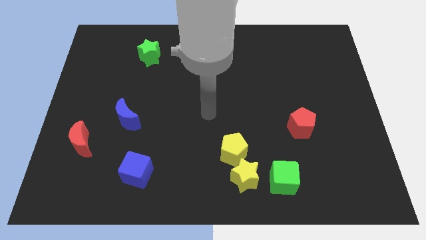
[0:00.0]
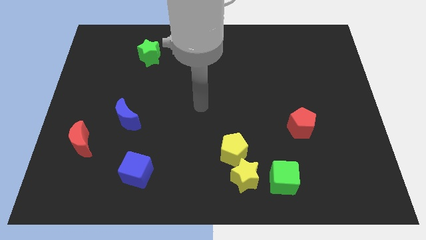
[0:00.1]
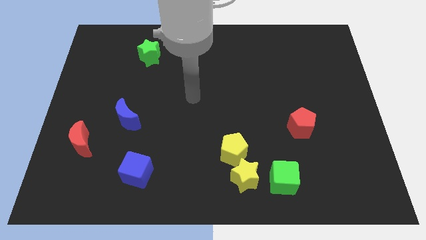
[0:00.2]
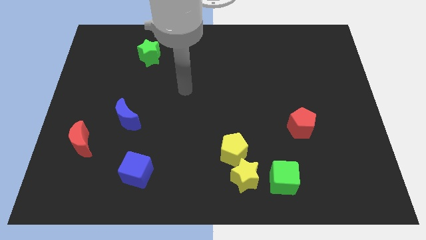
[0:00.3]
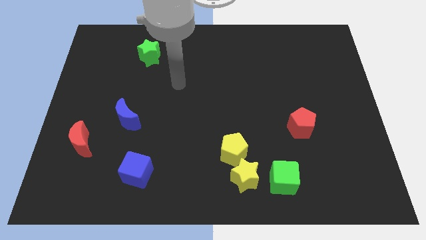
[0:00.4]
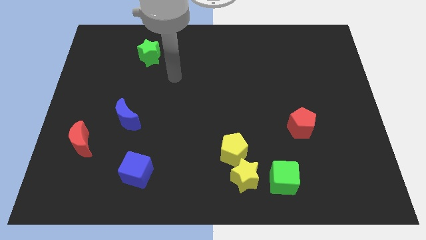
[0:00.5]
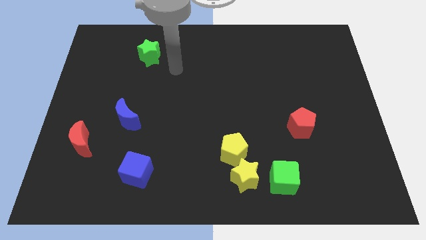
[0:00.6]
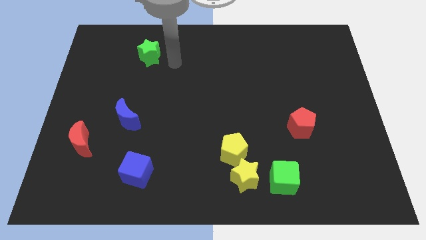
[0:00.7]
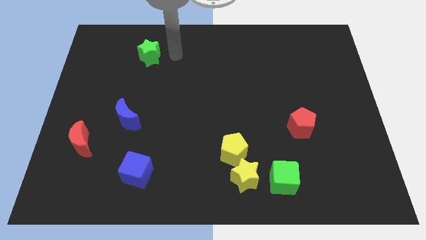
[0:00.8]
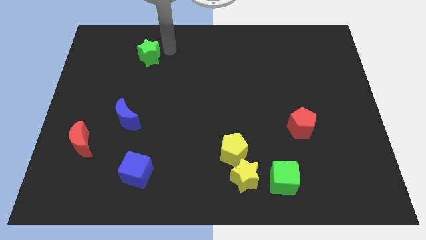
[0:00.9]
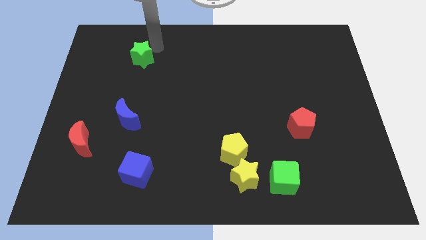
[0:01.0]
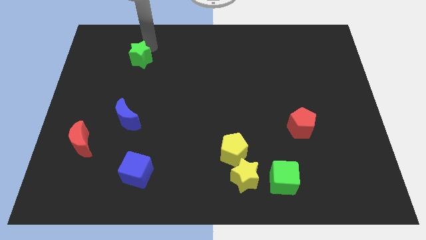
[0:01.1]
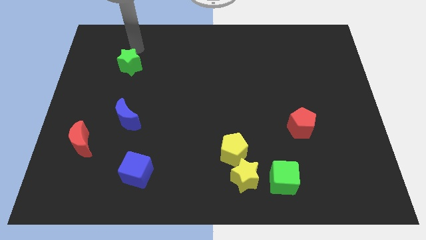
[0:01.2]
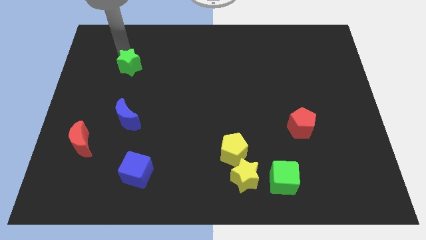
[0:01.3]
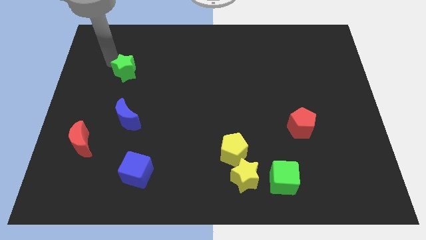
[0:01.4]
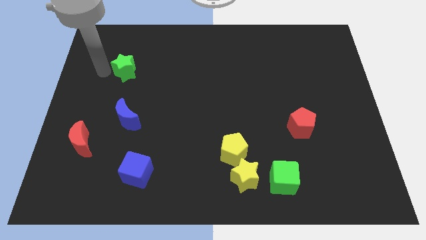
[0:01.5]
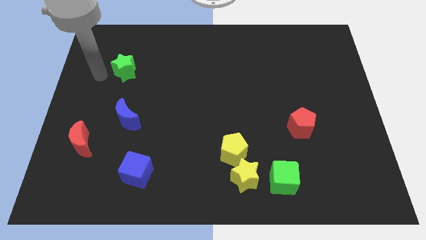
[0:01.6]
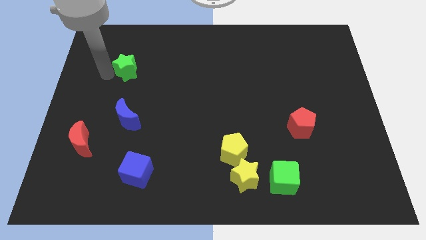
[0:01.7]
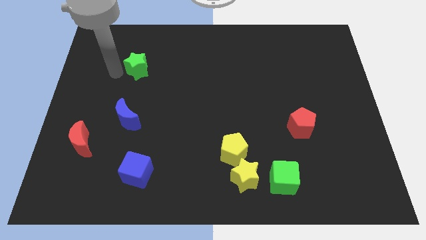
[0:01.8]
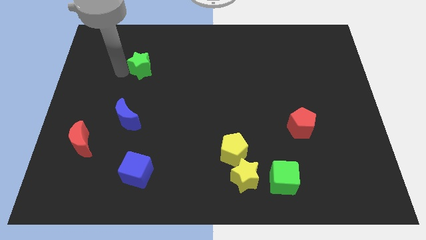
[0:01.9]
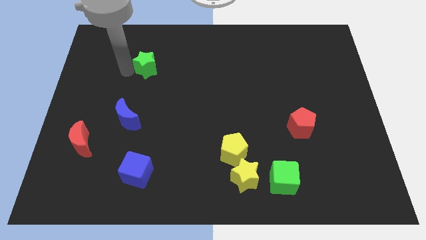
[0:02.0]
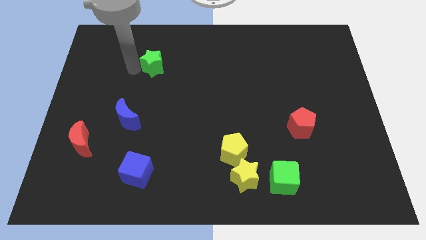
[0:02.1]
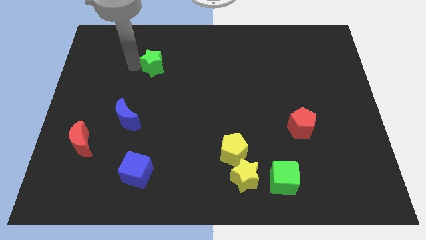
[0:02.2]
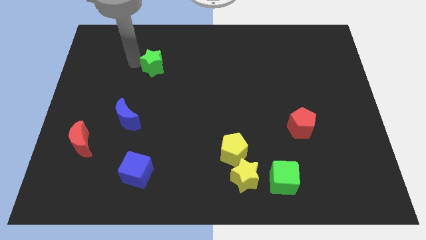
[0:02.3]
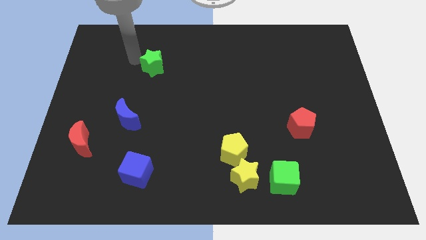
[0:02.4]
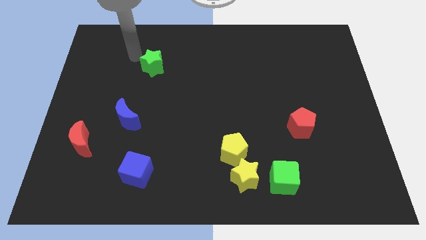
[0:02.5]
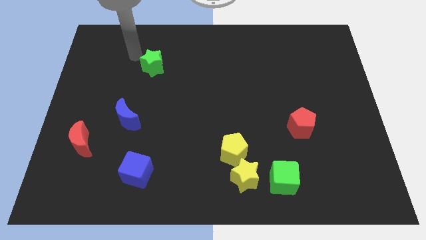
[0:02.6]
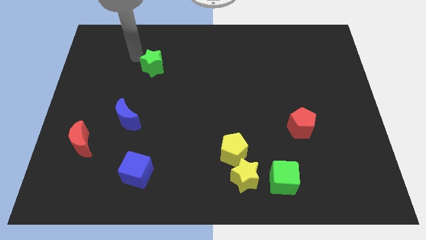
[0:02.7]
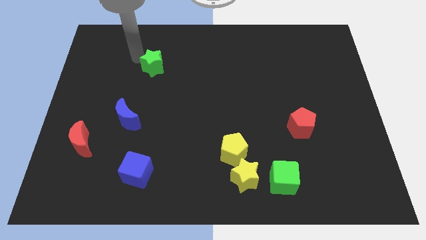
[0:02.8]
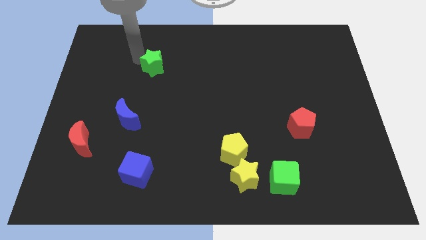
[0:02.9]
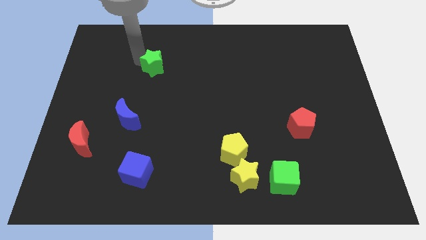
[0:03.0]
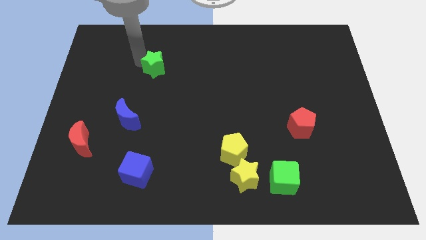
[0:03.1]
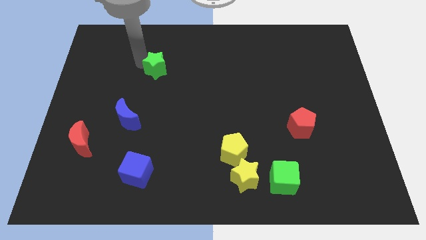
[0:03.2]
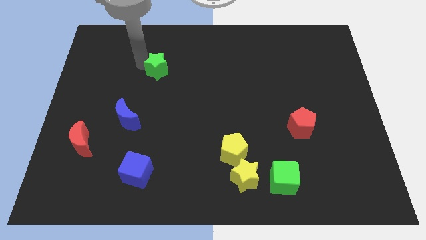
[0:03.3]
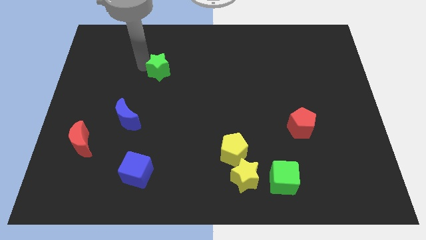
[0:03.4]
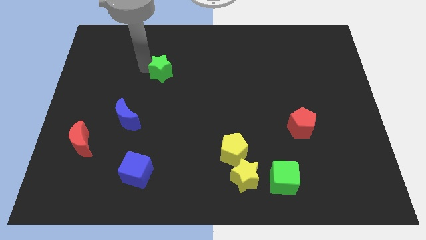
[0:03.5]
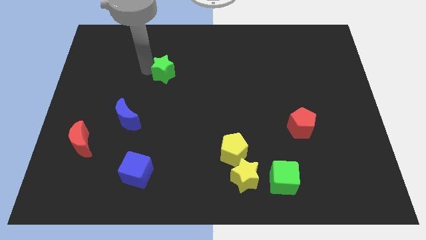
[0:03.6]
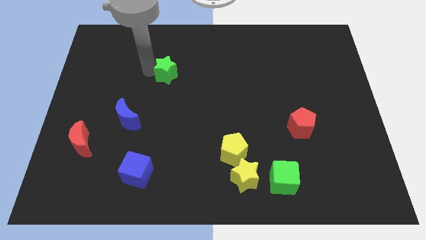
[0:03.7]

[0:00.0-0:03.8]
move the green star downwards and then to the right a bit

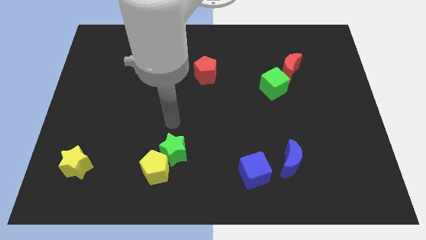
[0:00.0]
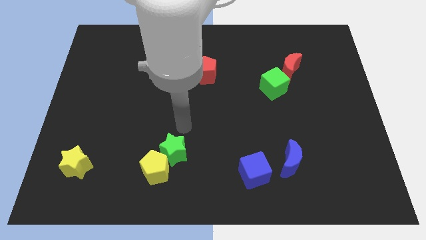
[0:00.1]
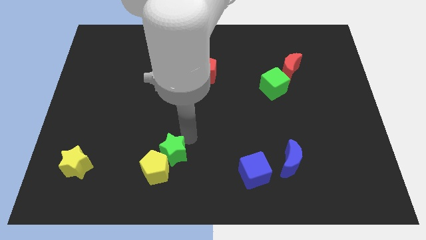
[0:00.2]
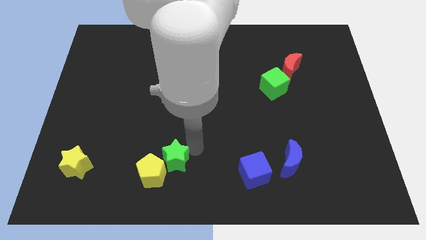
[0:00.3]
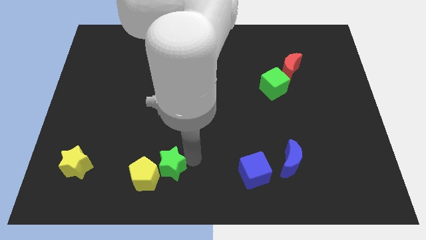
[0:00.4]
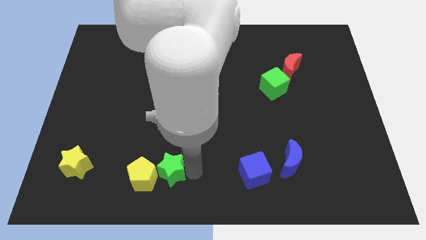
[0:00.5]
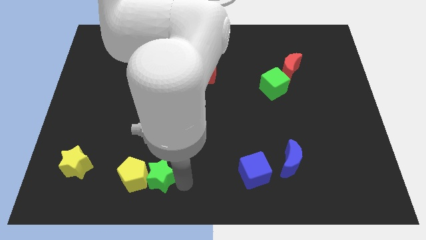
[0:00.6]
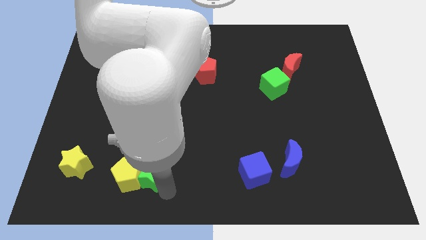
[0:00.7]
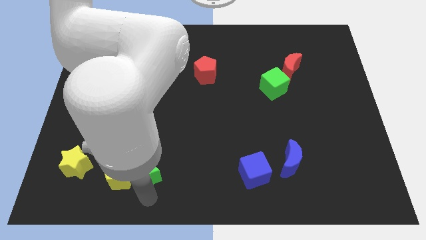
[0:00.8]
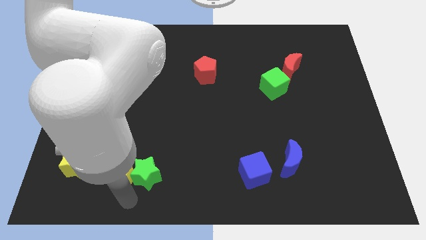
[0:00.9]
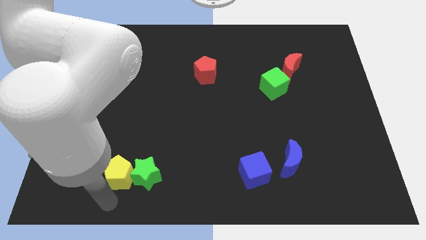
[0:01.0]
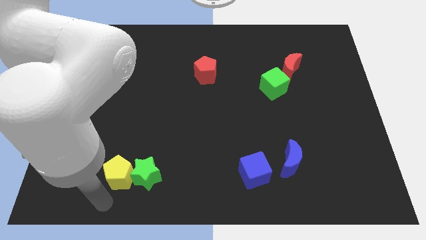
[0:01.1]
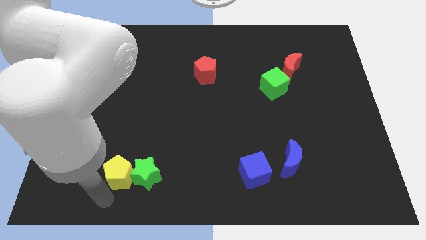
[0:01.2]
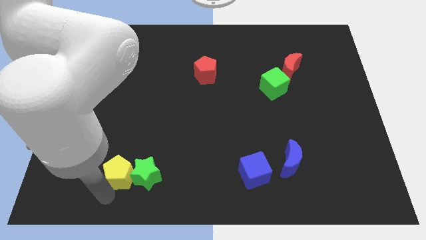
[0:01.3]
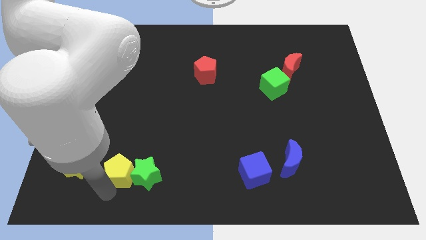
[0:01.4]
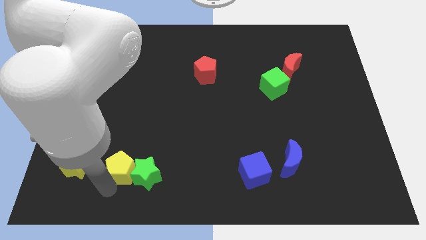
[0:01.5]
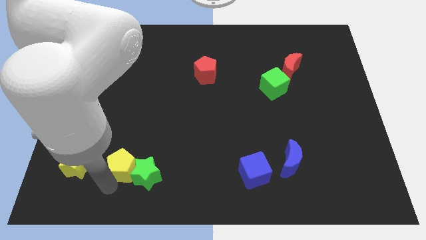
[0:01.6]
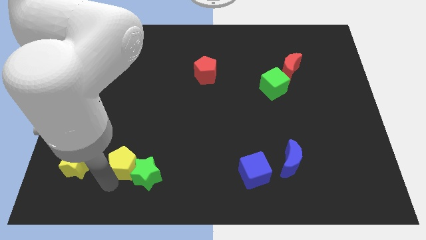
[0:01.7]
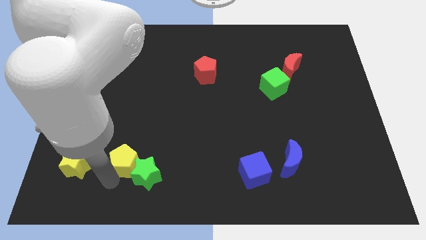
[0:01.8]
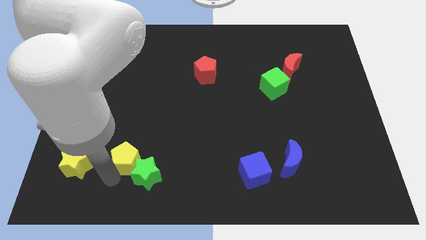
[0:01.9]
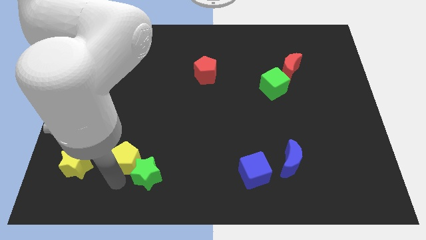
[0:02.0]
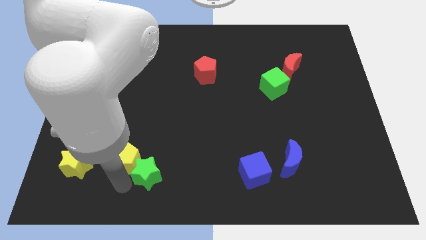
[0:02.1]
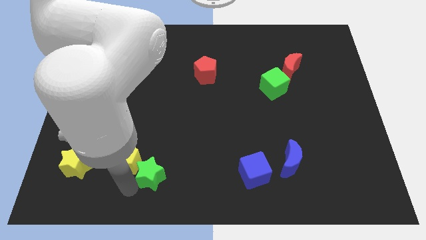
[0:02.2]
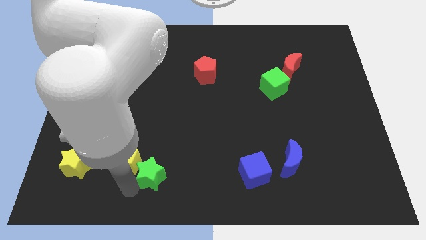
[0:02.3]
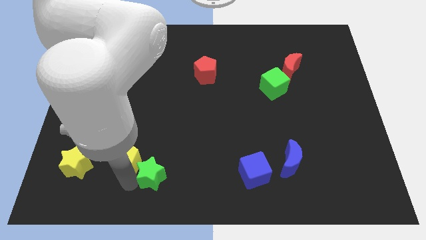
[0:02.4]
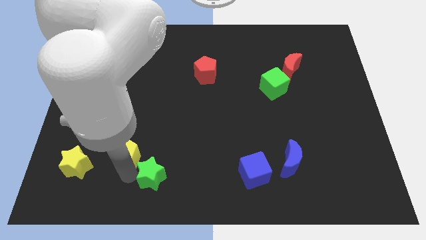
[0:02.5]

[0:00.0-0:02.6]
push the yellow pentagon upwards and then to the left somewhat

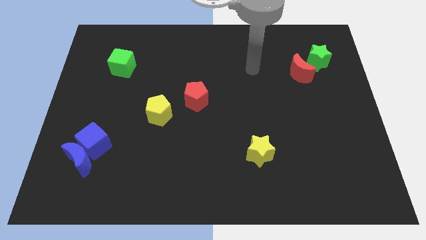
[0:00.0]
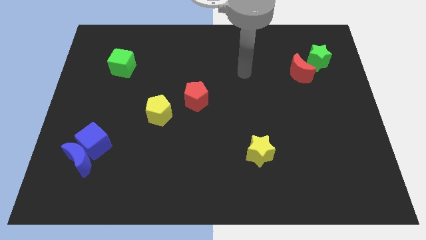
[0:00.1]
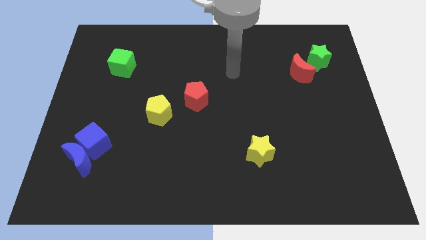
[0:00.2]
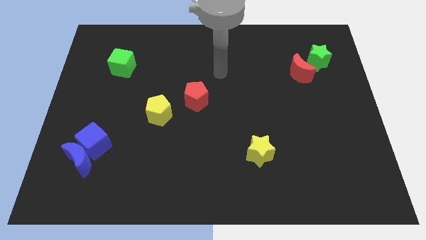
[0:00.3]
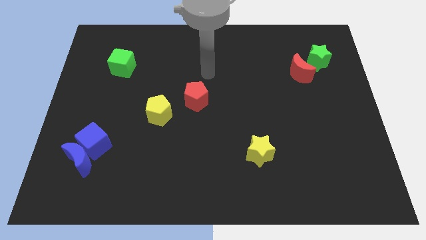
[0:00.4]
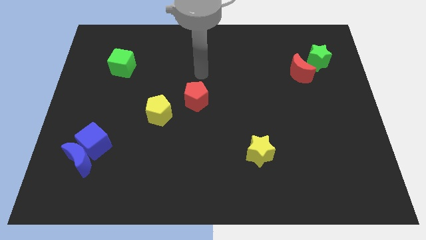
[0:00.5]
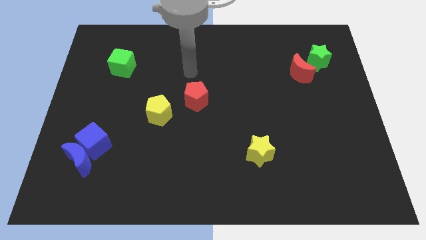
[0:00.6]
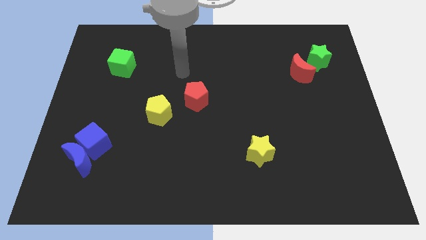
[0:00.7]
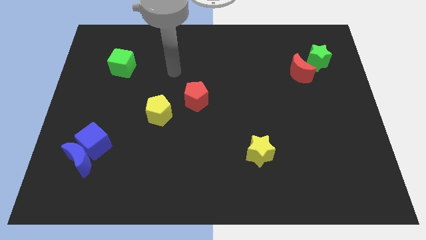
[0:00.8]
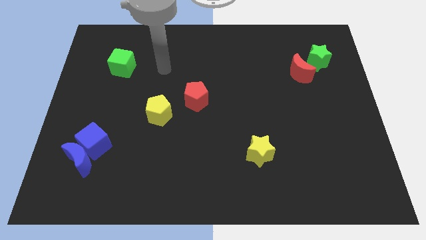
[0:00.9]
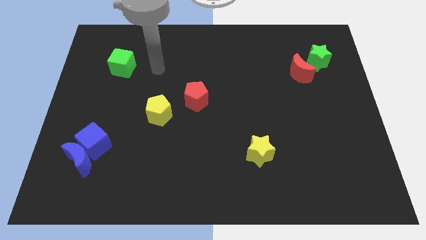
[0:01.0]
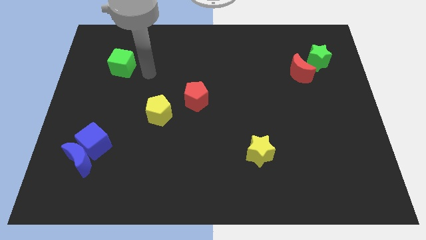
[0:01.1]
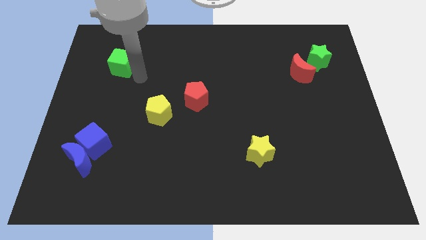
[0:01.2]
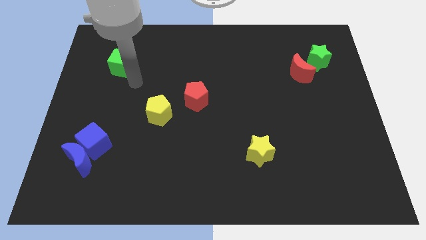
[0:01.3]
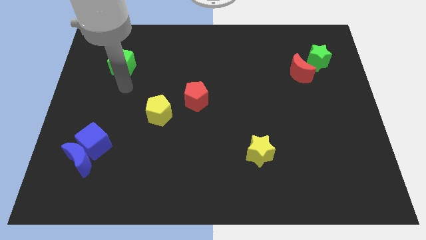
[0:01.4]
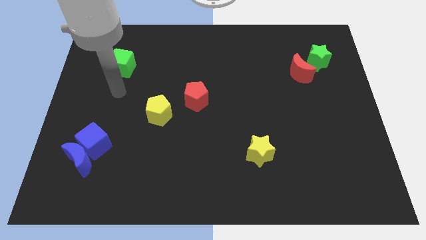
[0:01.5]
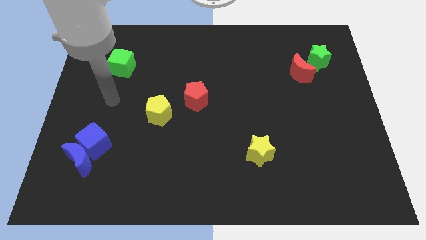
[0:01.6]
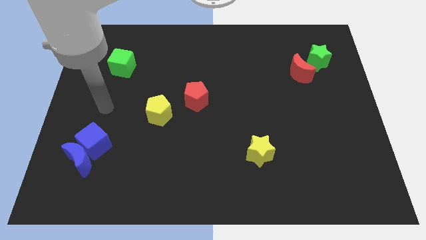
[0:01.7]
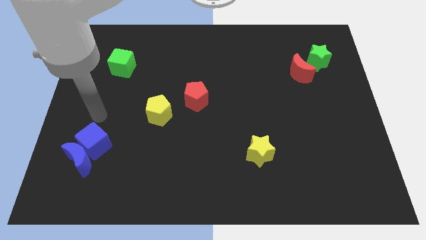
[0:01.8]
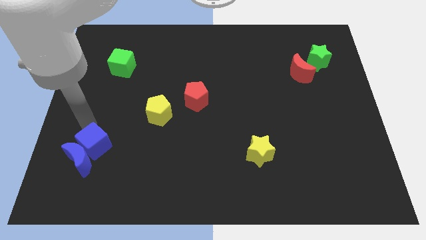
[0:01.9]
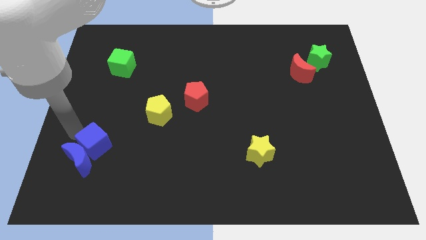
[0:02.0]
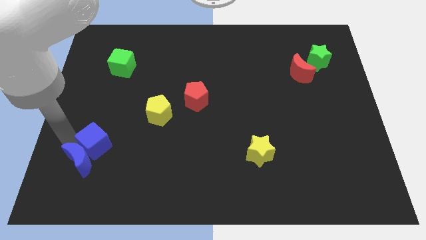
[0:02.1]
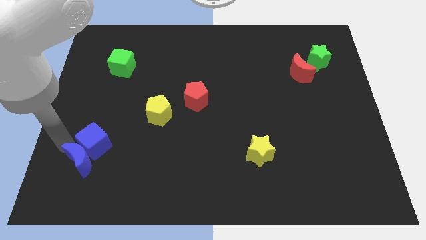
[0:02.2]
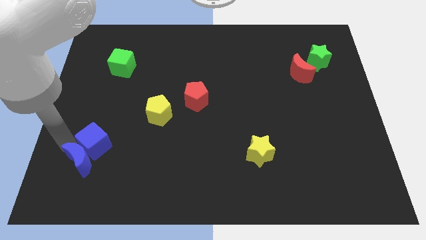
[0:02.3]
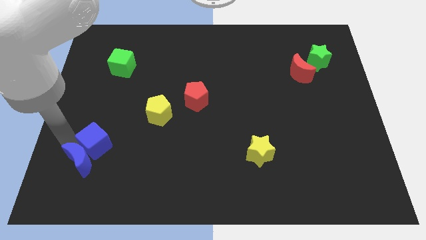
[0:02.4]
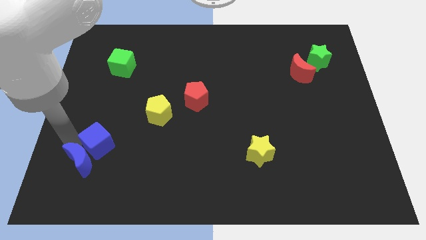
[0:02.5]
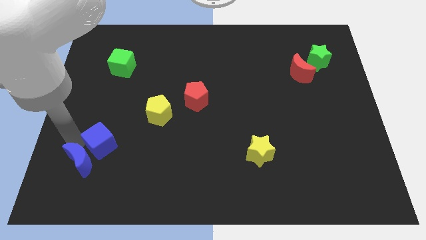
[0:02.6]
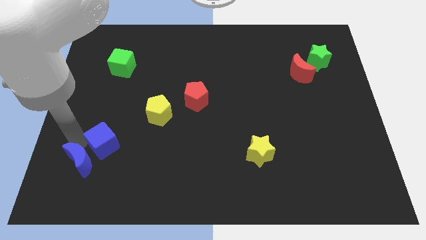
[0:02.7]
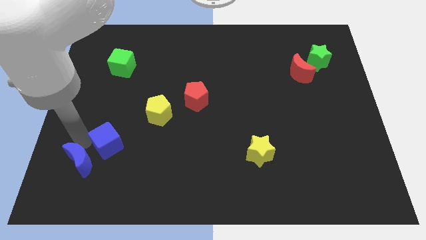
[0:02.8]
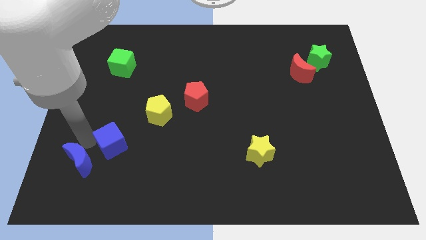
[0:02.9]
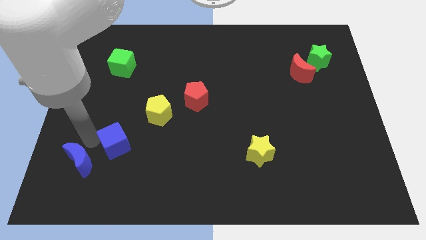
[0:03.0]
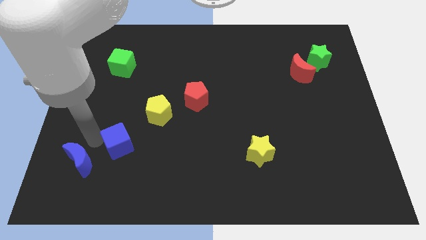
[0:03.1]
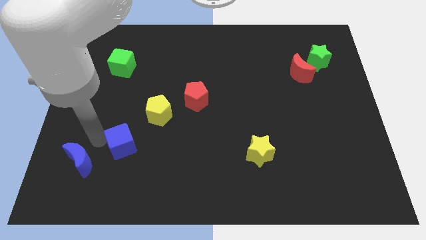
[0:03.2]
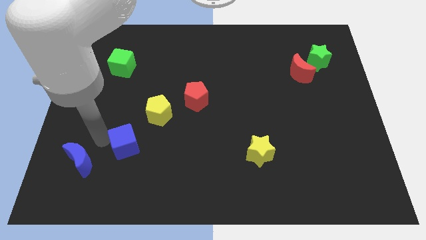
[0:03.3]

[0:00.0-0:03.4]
slightly slide the blue cube to the right
